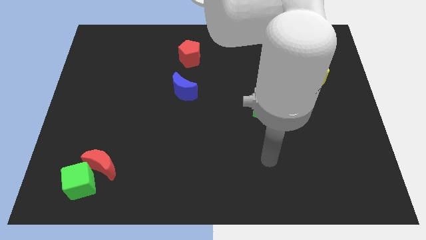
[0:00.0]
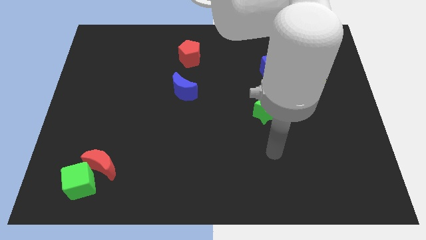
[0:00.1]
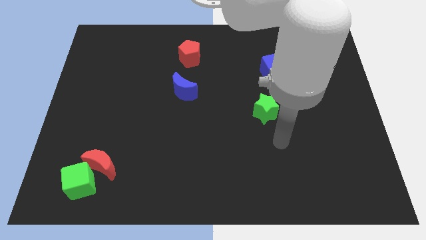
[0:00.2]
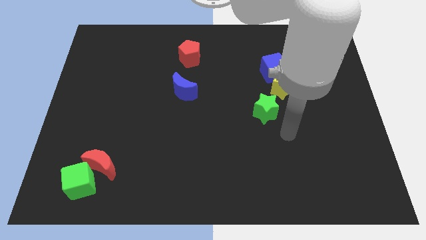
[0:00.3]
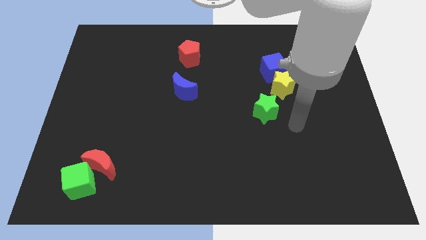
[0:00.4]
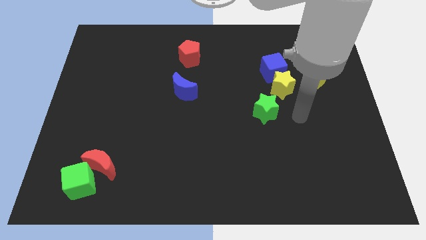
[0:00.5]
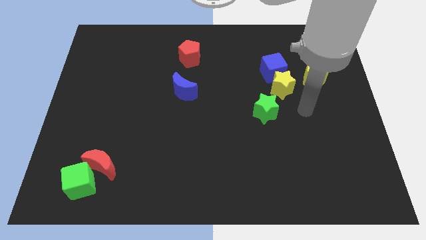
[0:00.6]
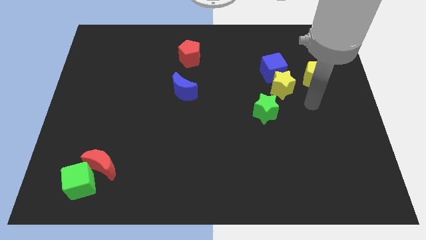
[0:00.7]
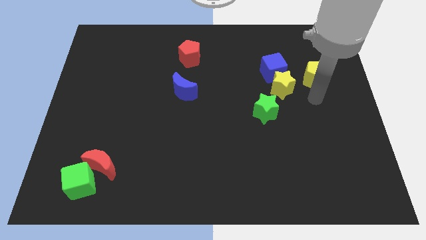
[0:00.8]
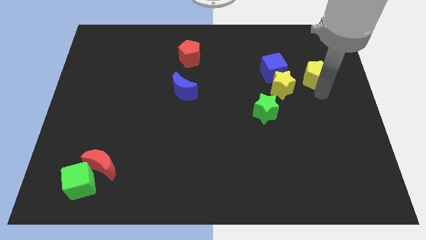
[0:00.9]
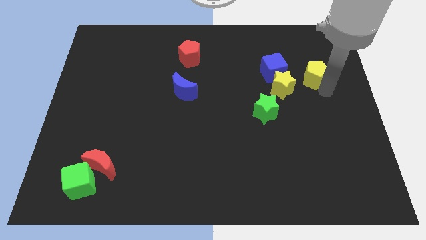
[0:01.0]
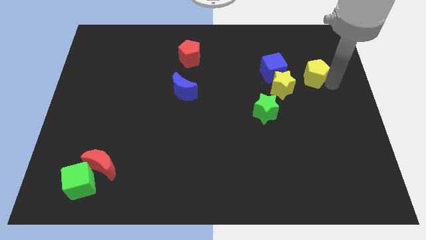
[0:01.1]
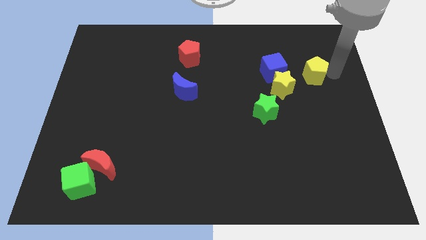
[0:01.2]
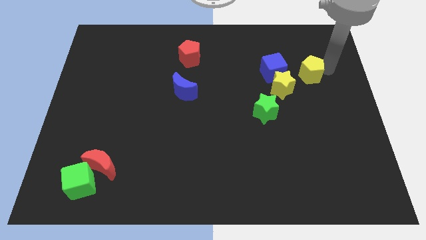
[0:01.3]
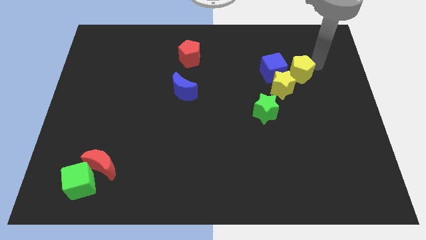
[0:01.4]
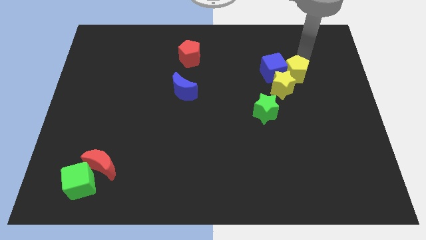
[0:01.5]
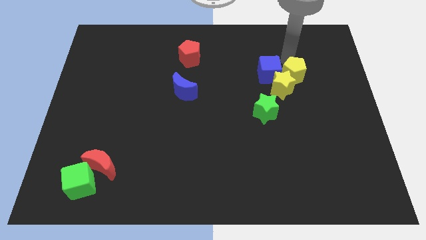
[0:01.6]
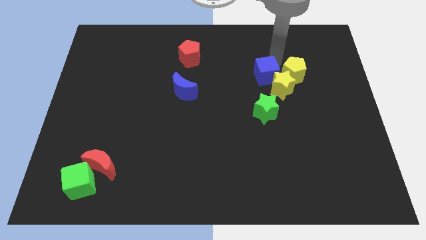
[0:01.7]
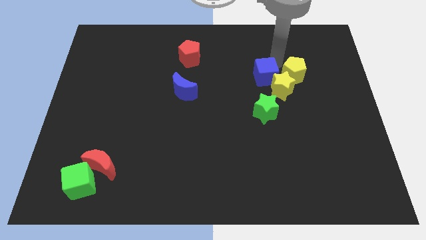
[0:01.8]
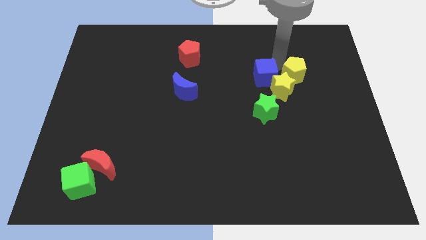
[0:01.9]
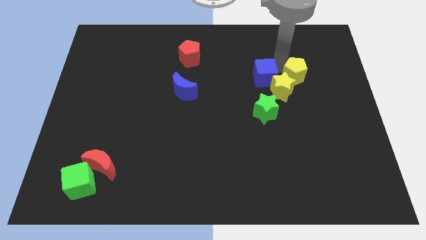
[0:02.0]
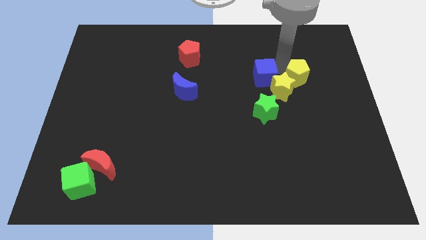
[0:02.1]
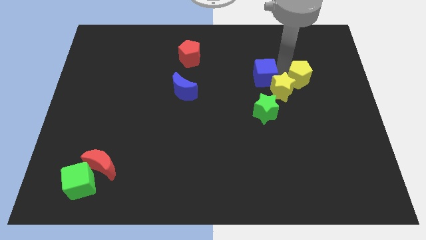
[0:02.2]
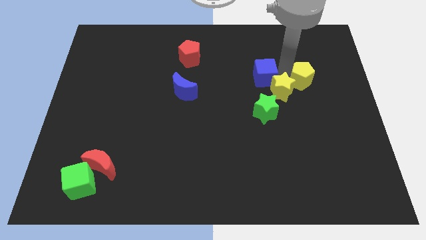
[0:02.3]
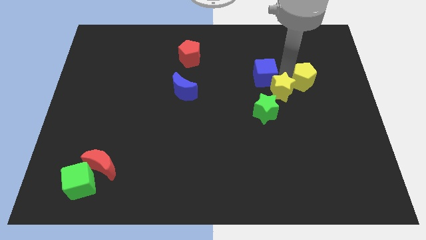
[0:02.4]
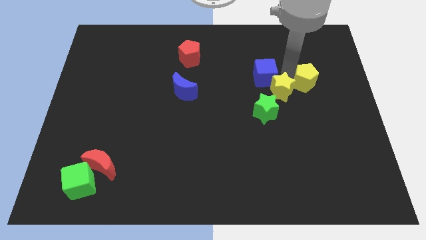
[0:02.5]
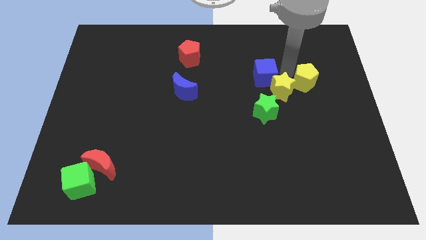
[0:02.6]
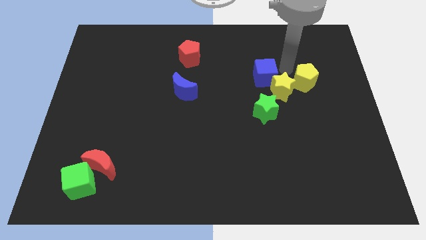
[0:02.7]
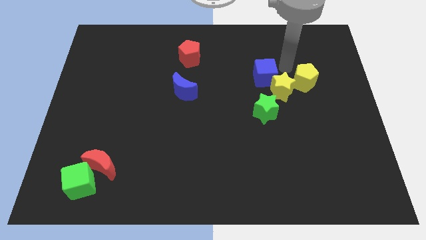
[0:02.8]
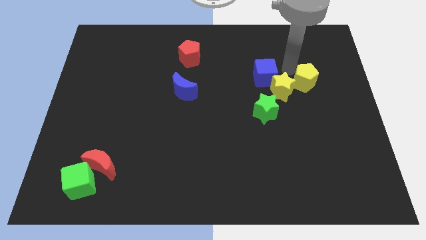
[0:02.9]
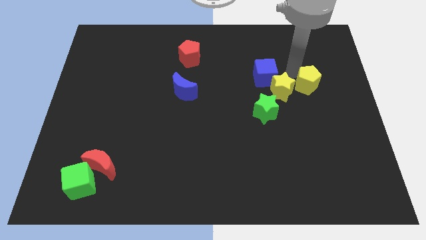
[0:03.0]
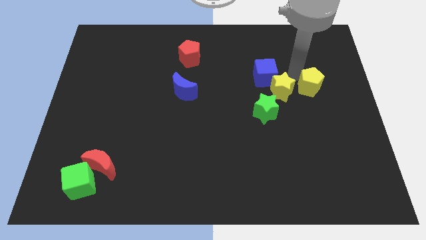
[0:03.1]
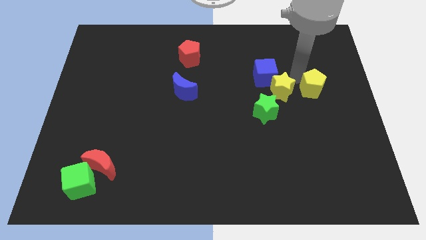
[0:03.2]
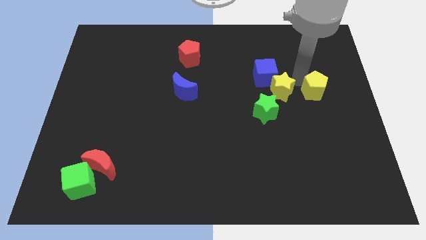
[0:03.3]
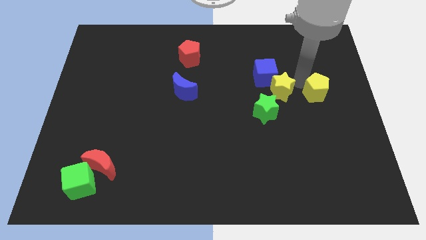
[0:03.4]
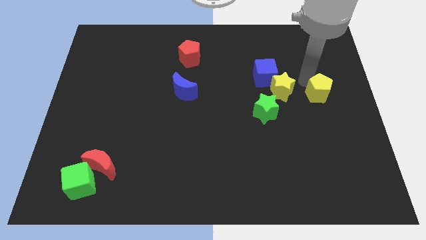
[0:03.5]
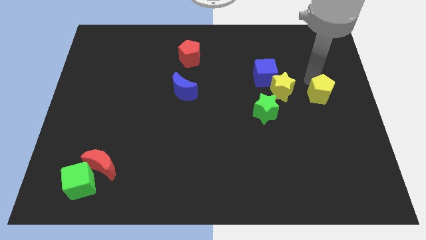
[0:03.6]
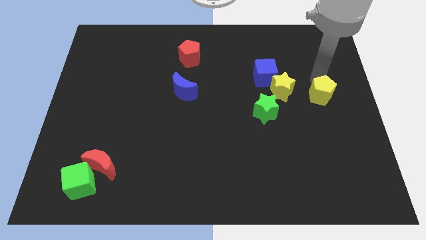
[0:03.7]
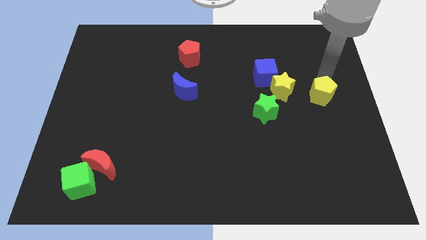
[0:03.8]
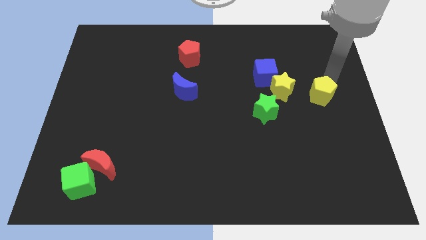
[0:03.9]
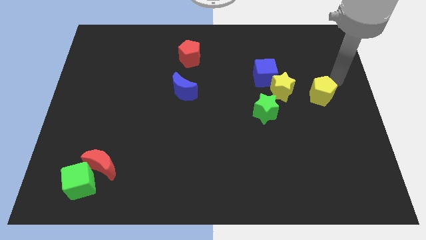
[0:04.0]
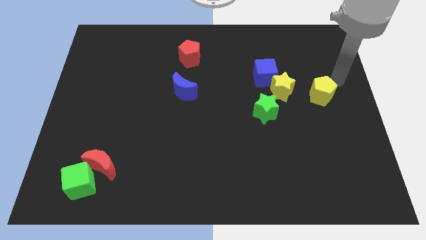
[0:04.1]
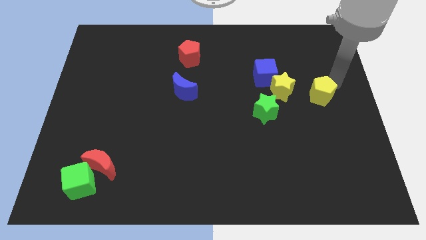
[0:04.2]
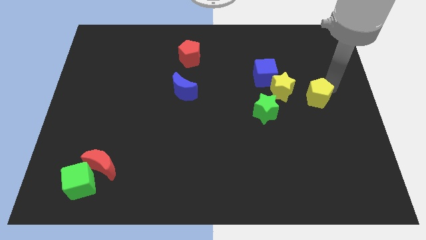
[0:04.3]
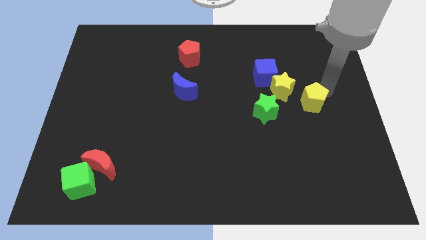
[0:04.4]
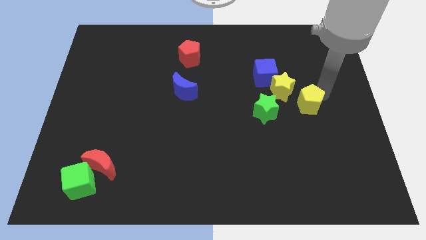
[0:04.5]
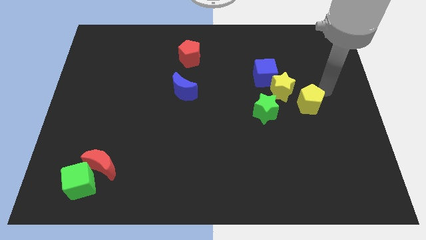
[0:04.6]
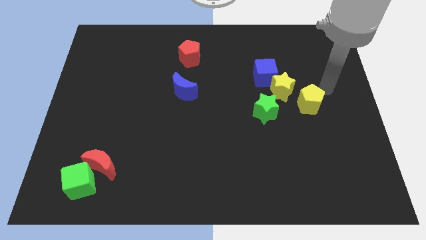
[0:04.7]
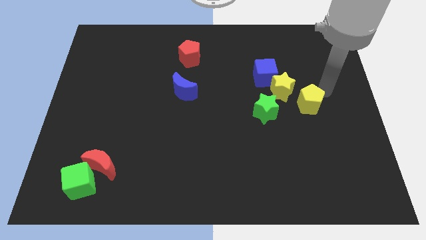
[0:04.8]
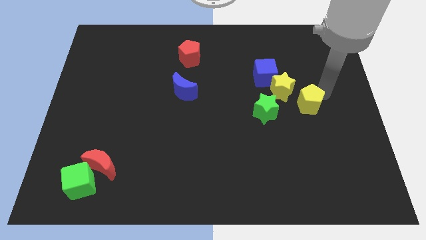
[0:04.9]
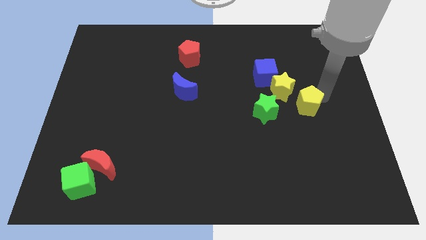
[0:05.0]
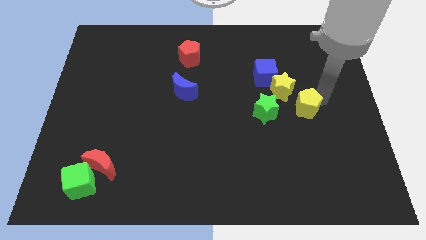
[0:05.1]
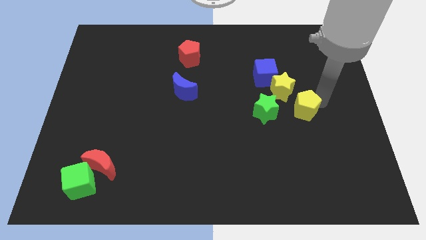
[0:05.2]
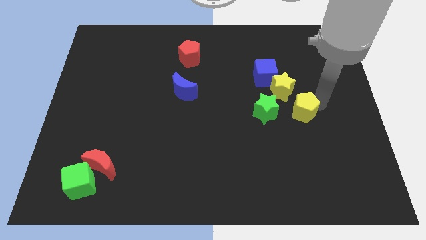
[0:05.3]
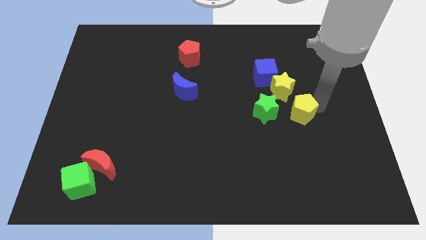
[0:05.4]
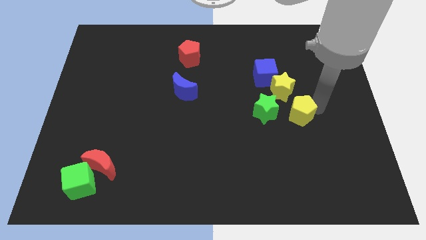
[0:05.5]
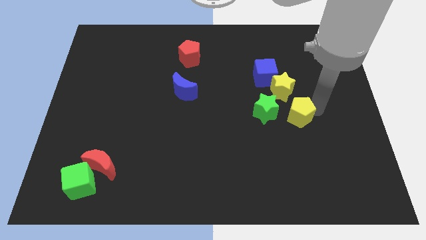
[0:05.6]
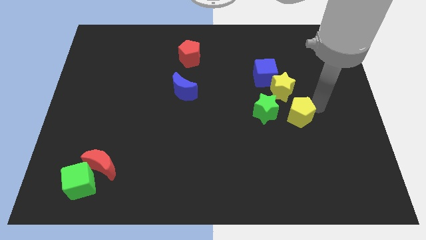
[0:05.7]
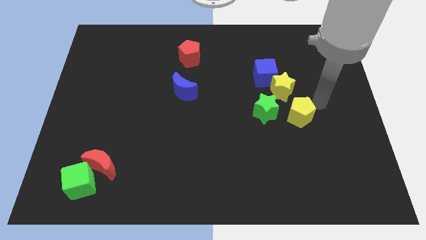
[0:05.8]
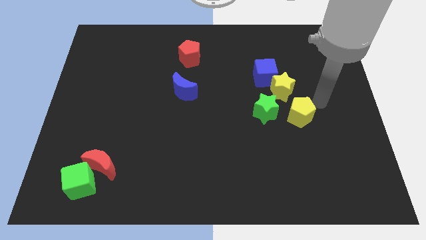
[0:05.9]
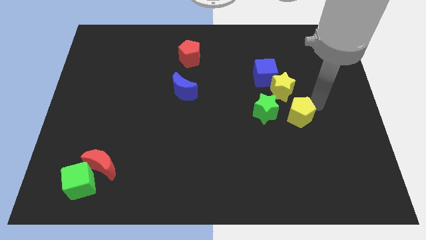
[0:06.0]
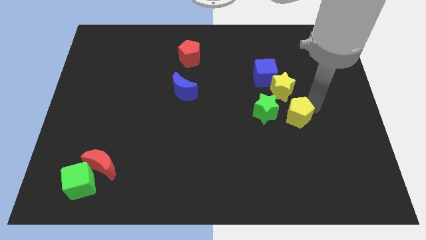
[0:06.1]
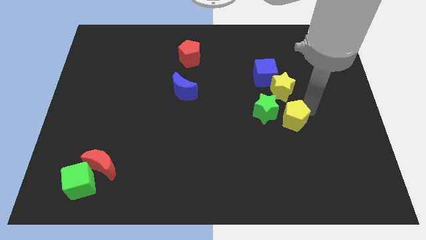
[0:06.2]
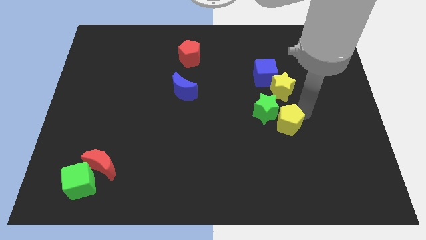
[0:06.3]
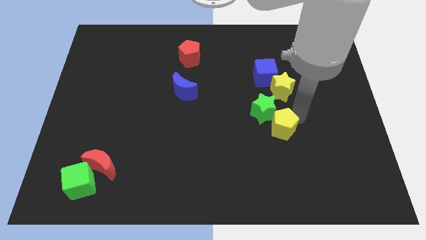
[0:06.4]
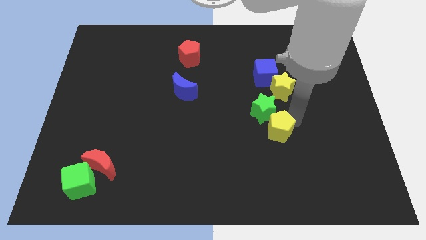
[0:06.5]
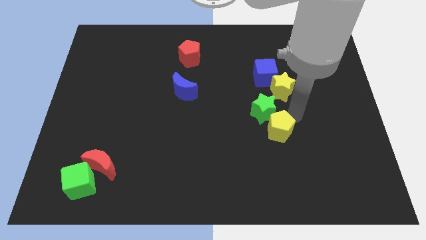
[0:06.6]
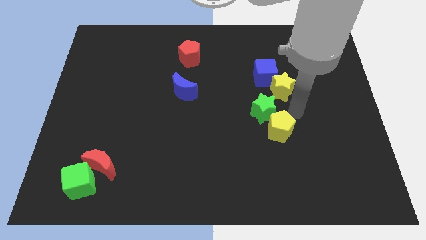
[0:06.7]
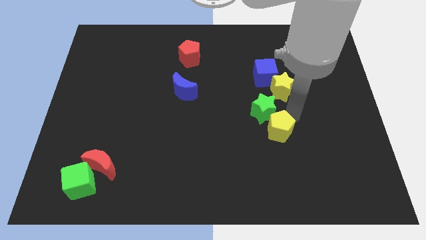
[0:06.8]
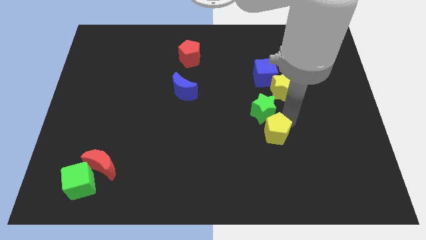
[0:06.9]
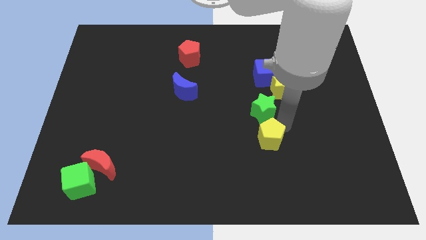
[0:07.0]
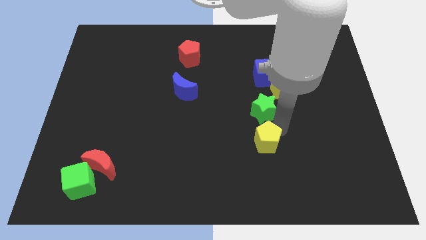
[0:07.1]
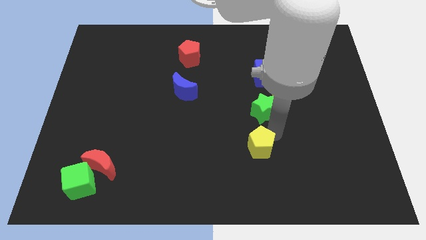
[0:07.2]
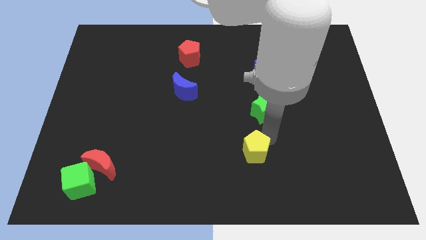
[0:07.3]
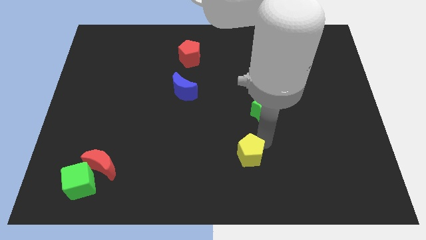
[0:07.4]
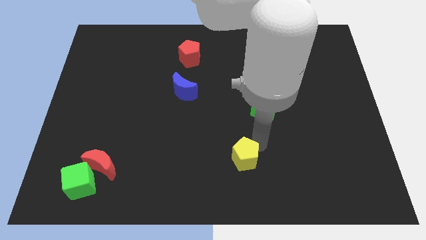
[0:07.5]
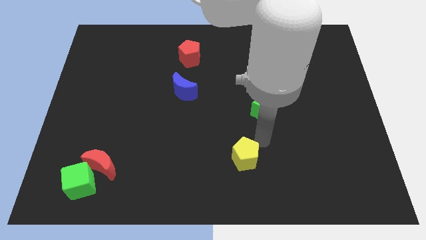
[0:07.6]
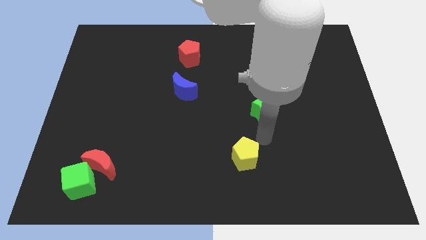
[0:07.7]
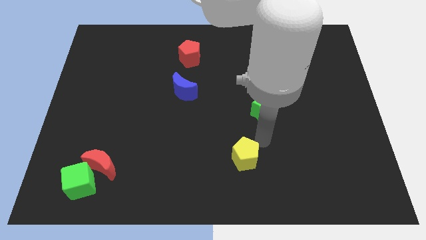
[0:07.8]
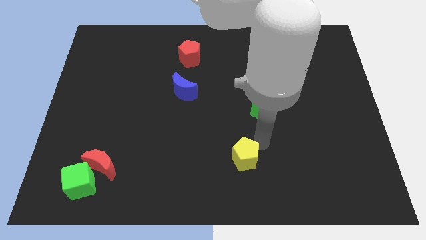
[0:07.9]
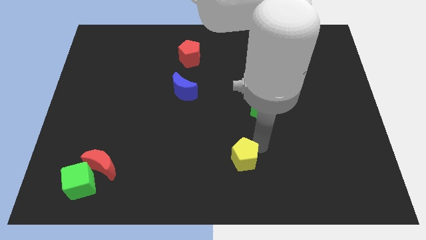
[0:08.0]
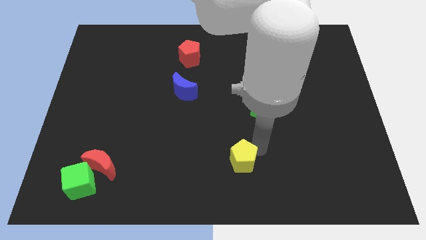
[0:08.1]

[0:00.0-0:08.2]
move the yellow pentagon to the bottom
